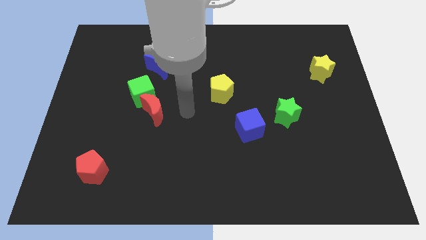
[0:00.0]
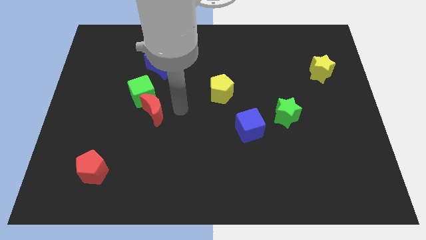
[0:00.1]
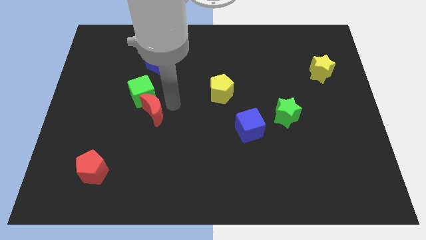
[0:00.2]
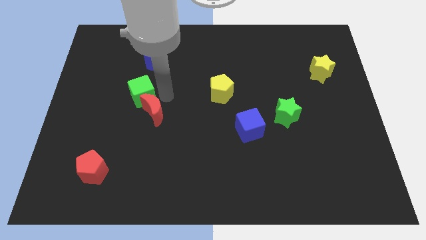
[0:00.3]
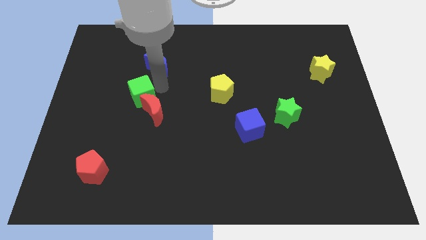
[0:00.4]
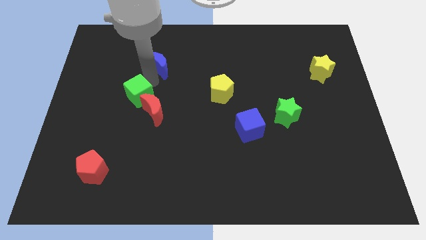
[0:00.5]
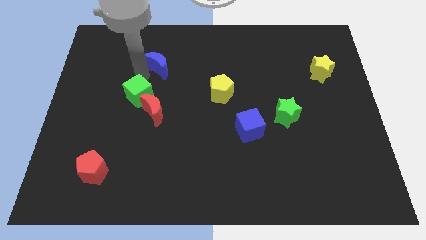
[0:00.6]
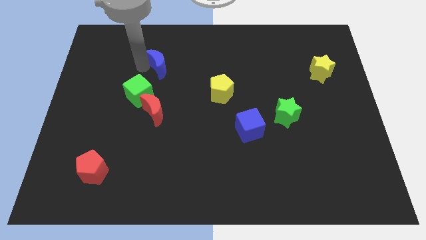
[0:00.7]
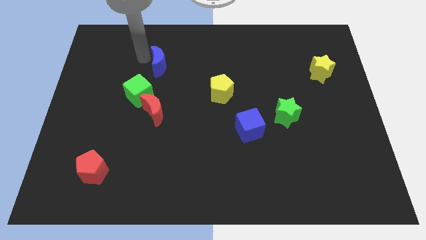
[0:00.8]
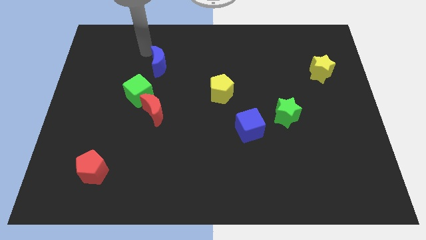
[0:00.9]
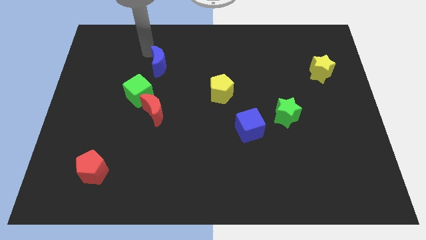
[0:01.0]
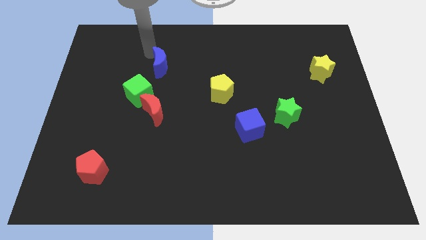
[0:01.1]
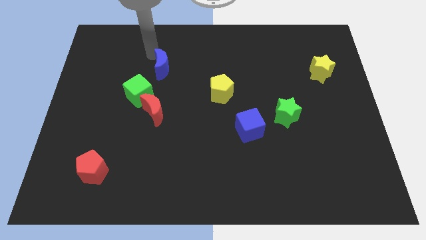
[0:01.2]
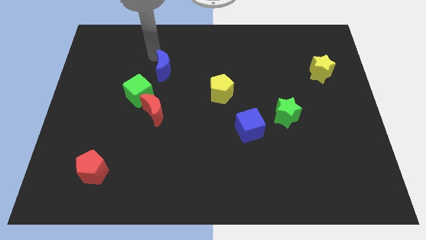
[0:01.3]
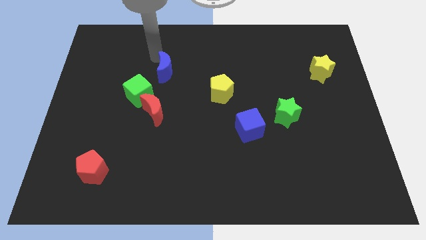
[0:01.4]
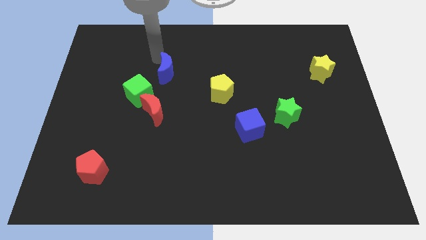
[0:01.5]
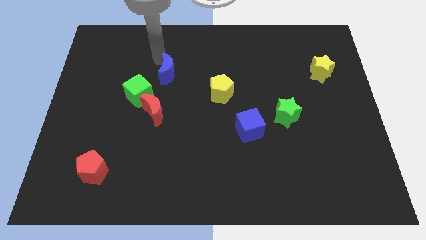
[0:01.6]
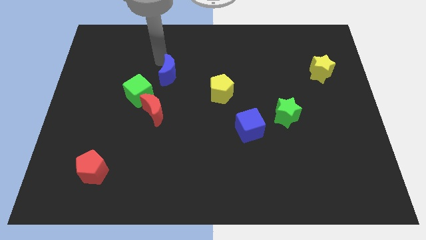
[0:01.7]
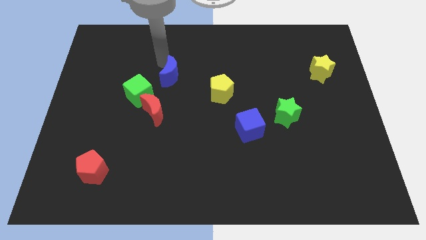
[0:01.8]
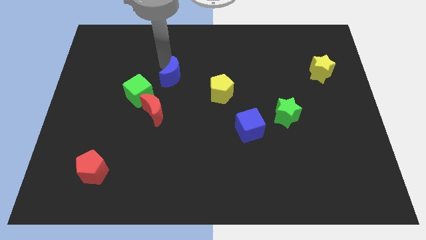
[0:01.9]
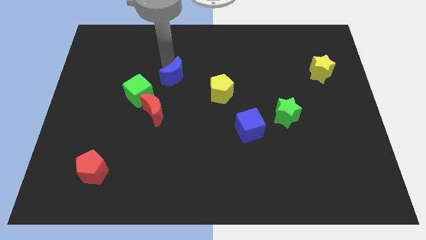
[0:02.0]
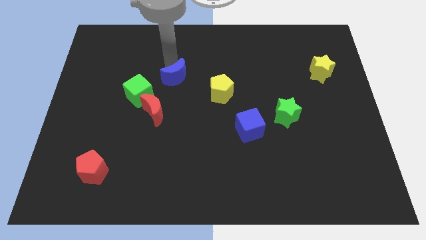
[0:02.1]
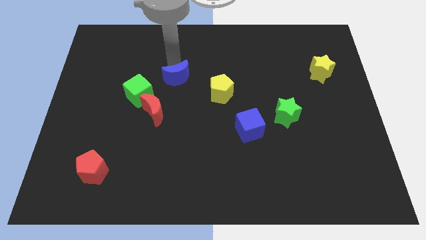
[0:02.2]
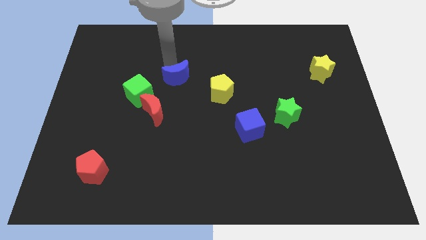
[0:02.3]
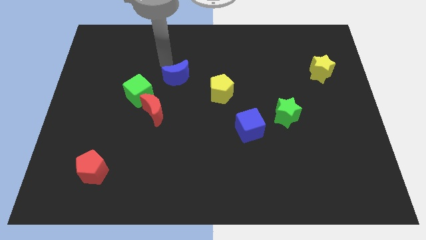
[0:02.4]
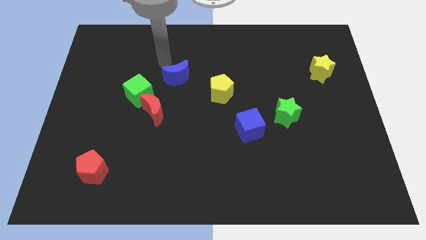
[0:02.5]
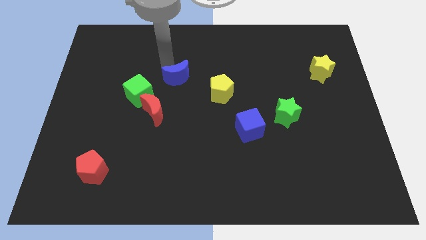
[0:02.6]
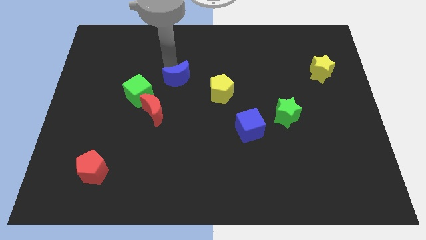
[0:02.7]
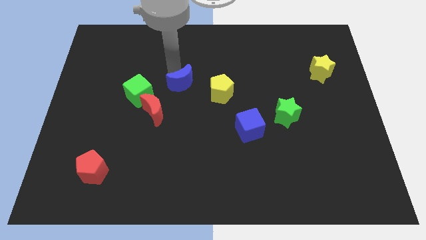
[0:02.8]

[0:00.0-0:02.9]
slide the blue moon a little bit downwards and to the right diagonally

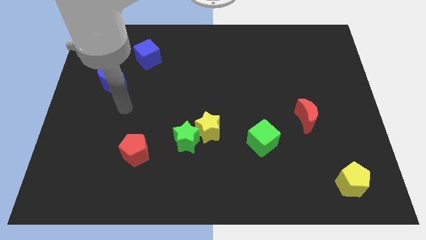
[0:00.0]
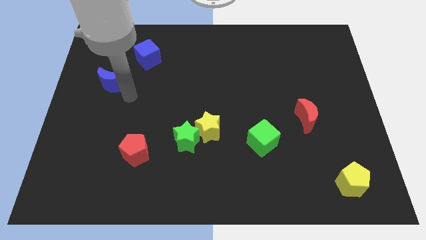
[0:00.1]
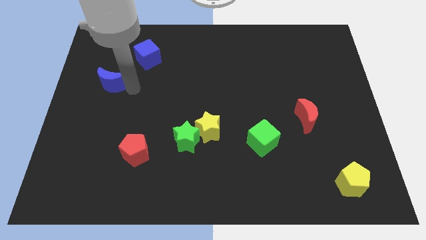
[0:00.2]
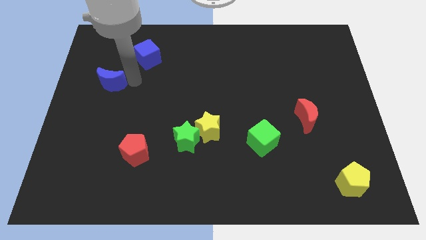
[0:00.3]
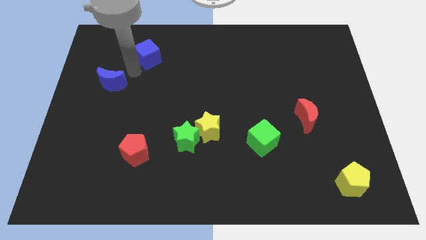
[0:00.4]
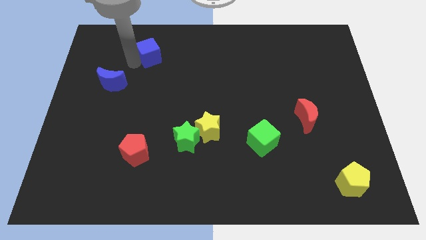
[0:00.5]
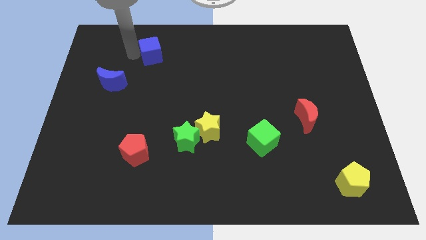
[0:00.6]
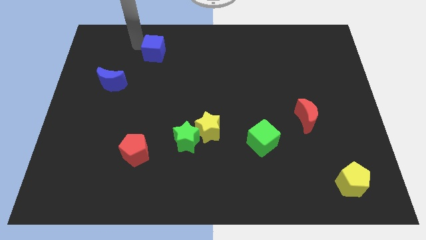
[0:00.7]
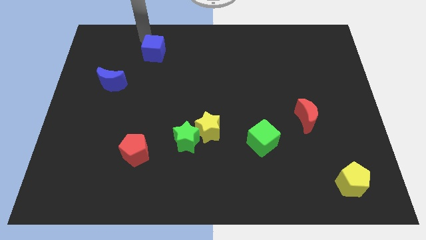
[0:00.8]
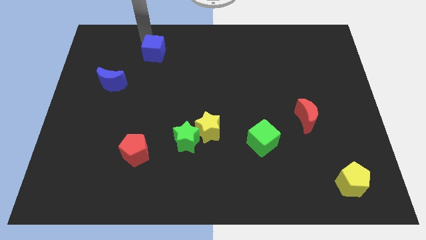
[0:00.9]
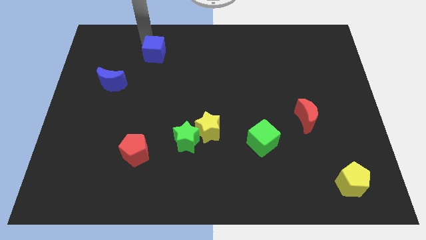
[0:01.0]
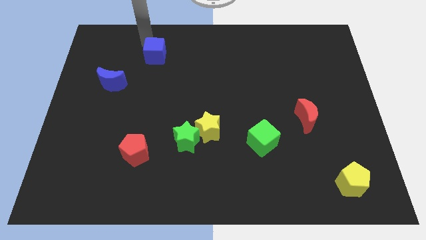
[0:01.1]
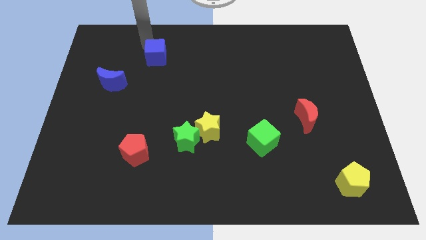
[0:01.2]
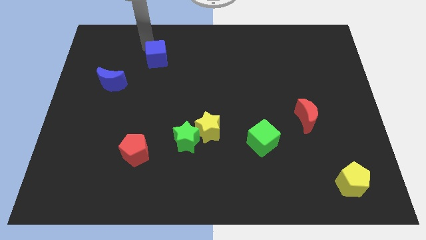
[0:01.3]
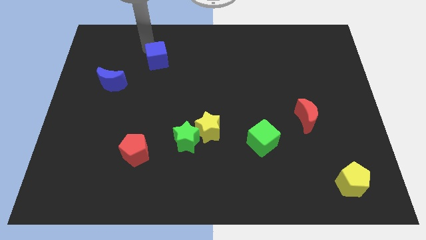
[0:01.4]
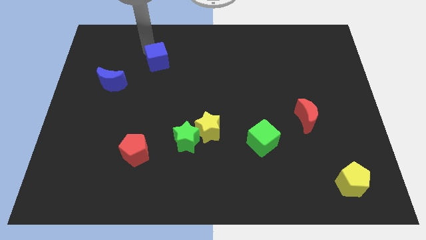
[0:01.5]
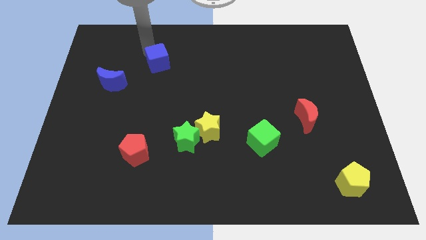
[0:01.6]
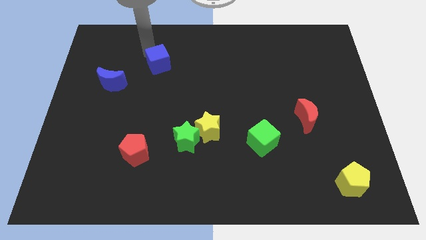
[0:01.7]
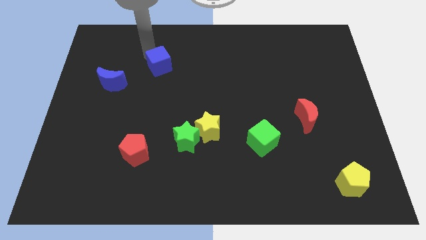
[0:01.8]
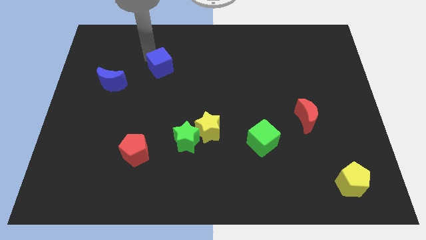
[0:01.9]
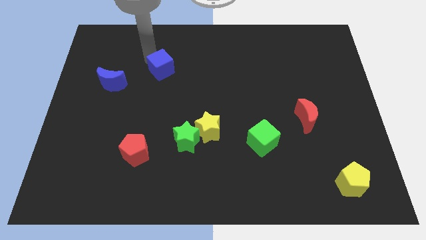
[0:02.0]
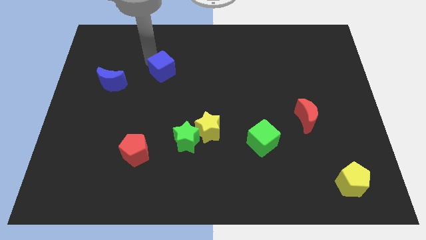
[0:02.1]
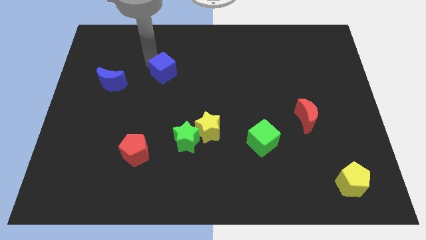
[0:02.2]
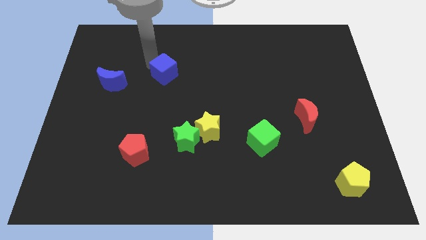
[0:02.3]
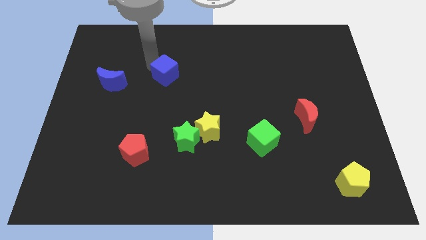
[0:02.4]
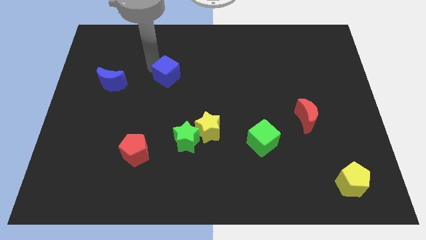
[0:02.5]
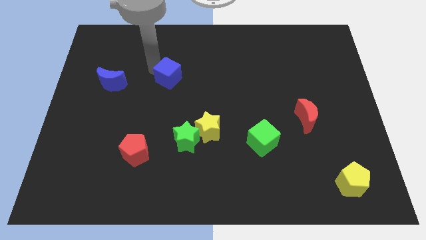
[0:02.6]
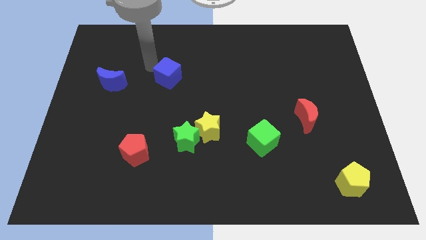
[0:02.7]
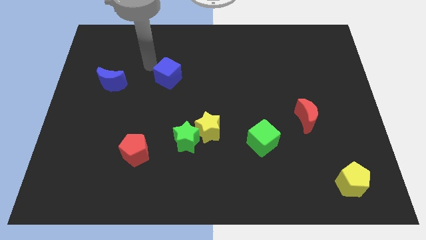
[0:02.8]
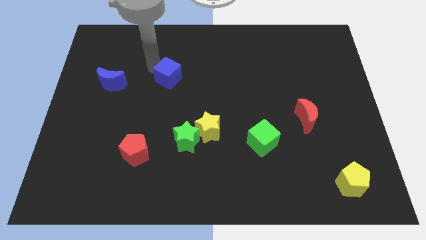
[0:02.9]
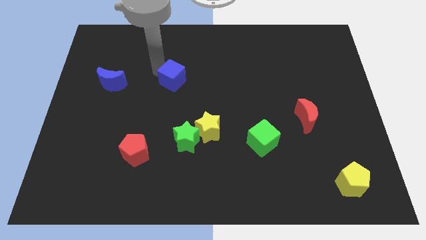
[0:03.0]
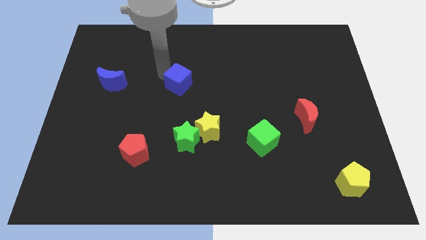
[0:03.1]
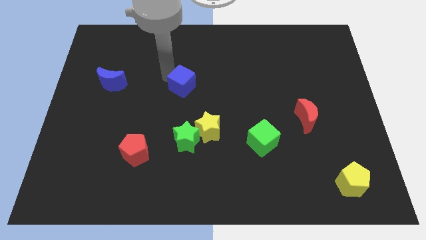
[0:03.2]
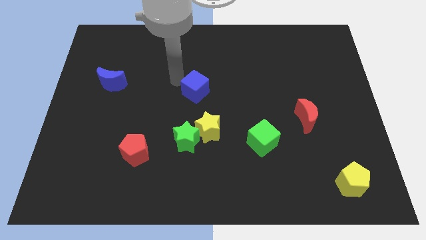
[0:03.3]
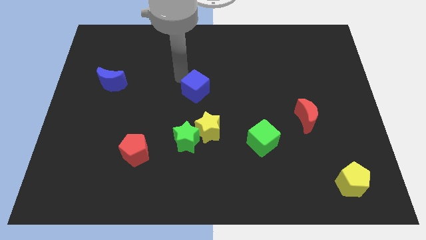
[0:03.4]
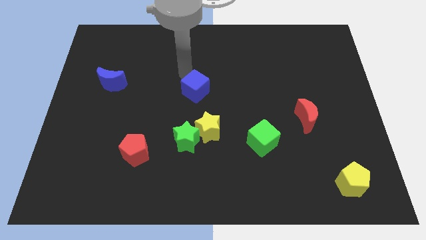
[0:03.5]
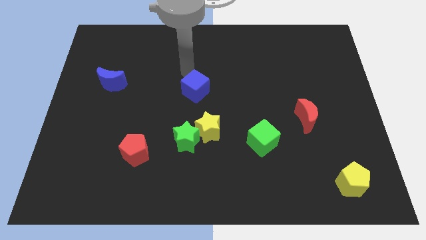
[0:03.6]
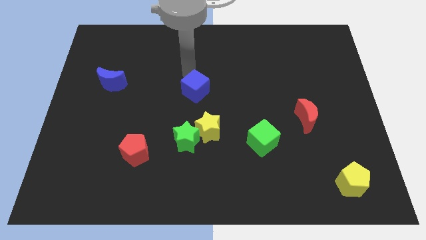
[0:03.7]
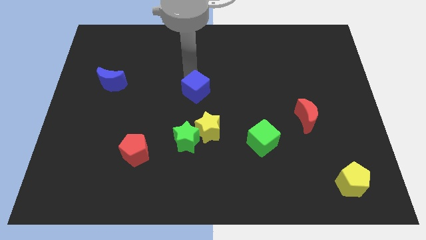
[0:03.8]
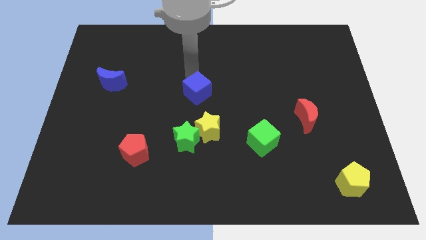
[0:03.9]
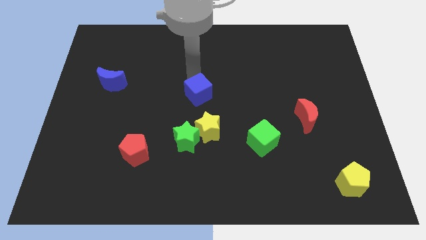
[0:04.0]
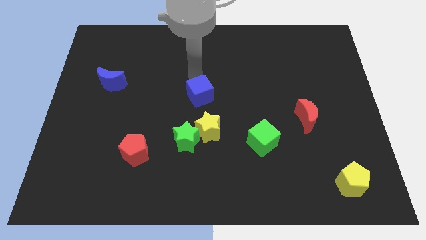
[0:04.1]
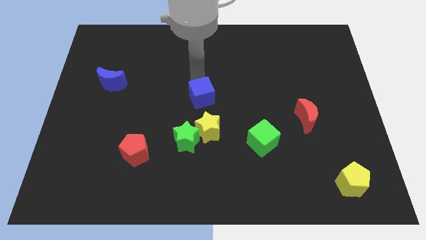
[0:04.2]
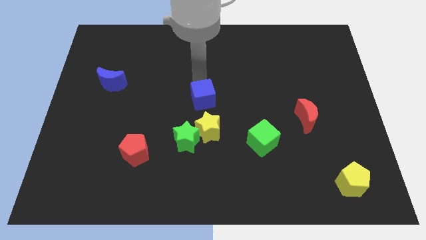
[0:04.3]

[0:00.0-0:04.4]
move the blue cube diagonally down and to the right

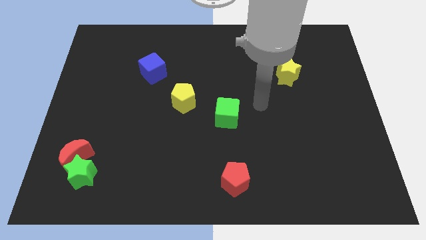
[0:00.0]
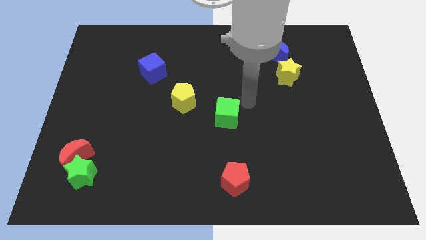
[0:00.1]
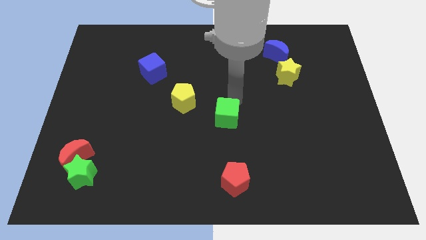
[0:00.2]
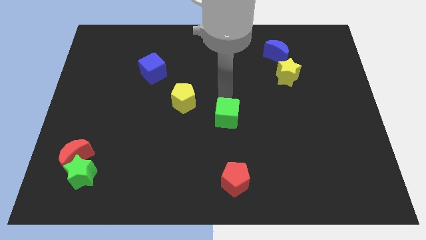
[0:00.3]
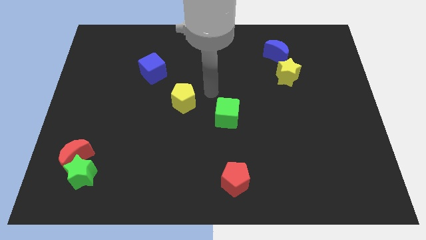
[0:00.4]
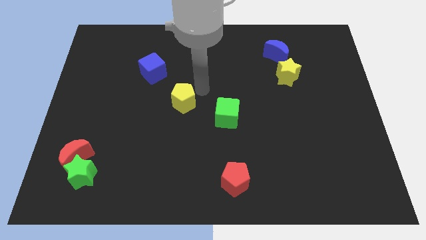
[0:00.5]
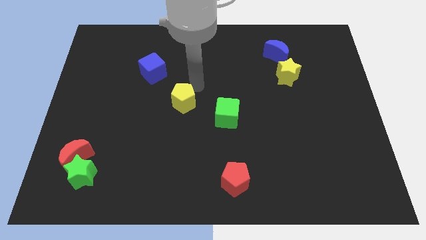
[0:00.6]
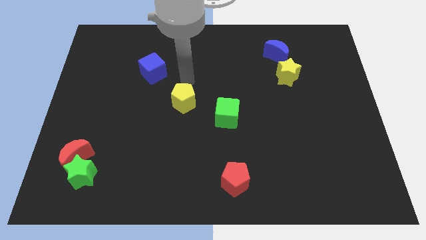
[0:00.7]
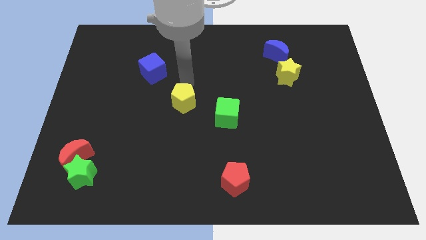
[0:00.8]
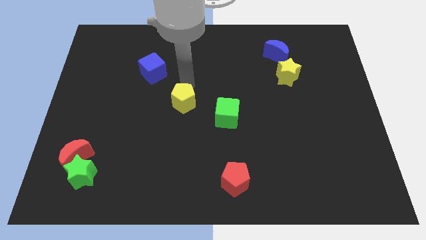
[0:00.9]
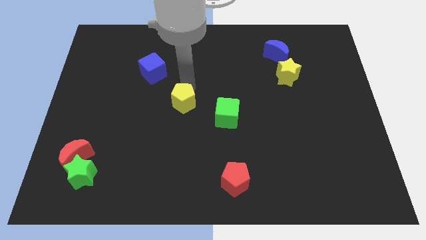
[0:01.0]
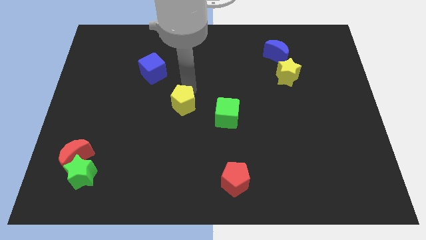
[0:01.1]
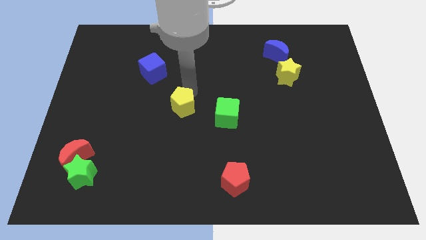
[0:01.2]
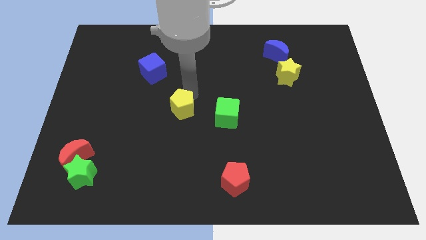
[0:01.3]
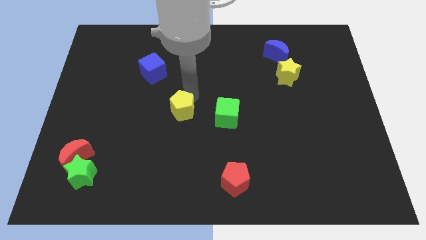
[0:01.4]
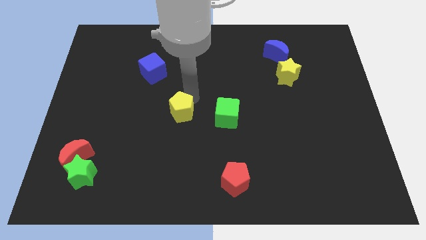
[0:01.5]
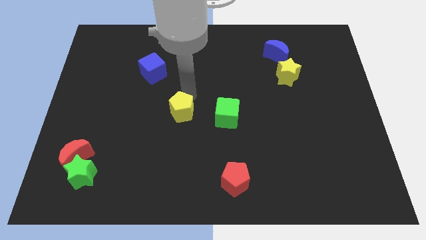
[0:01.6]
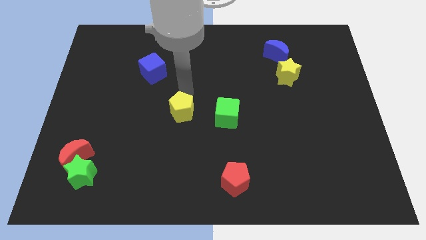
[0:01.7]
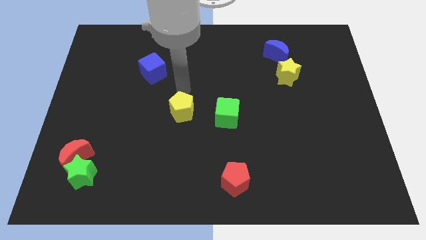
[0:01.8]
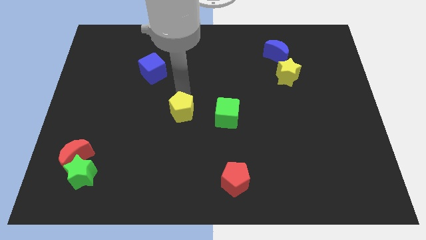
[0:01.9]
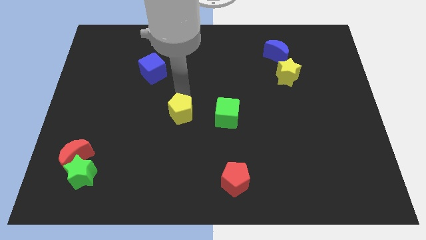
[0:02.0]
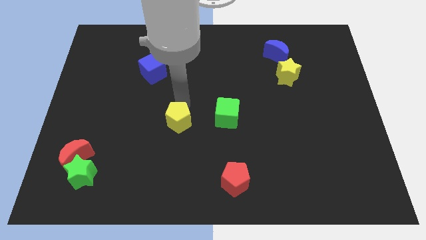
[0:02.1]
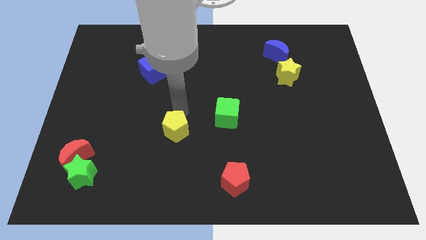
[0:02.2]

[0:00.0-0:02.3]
move the yellow pentagon down slightly
